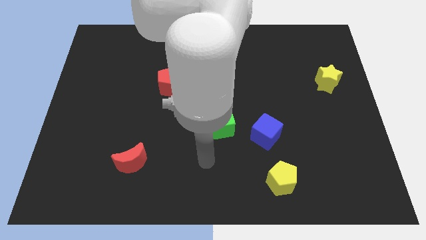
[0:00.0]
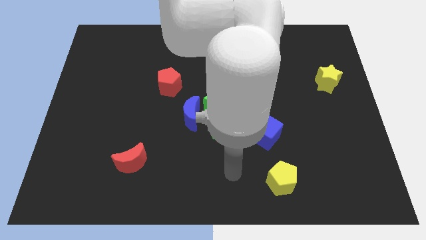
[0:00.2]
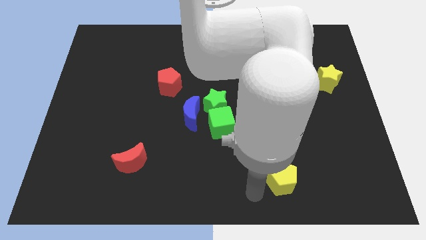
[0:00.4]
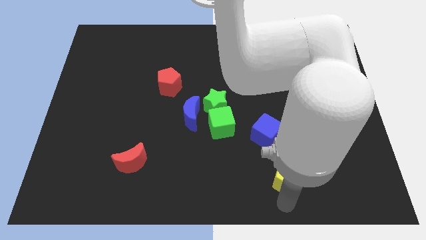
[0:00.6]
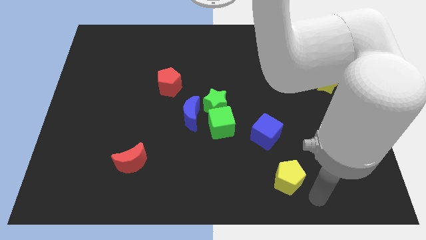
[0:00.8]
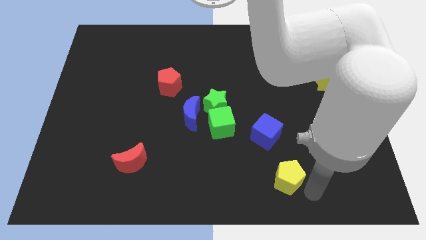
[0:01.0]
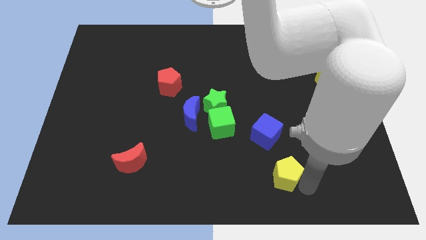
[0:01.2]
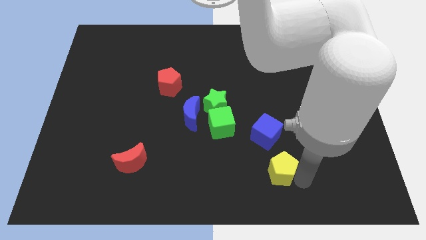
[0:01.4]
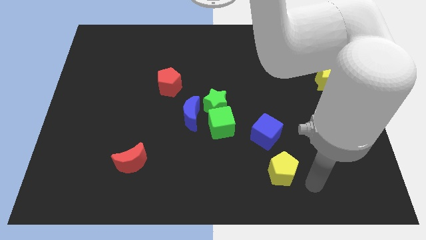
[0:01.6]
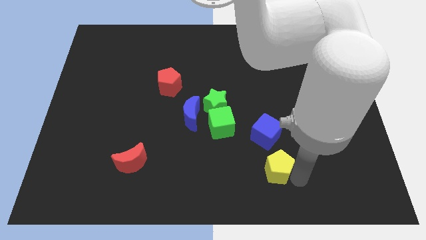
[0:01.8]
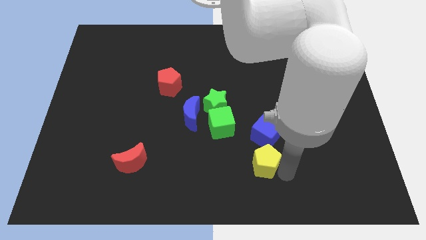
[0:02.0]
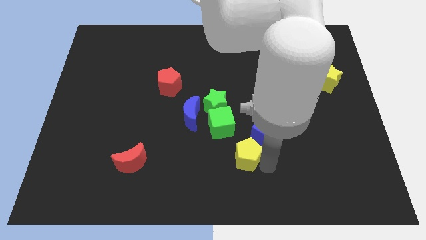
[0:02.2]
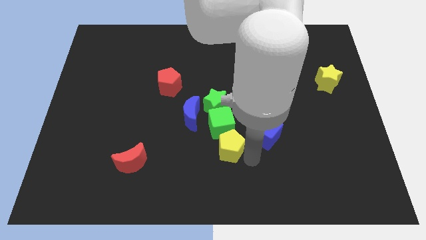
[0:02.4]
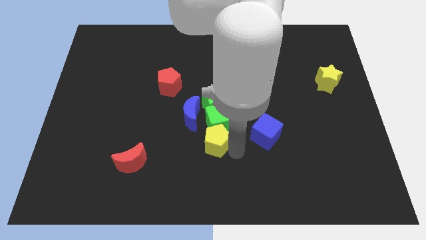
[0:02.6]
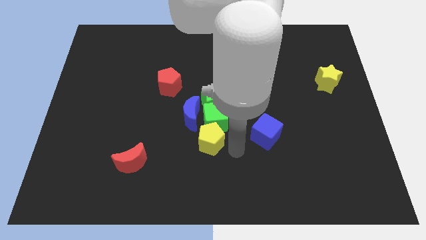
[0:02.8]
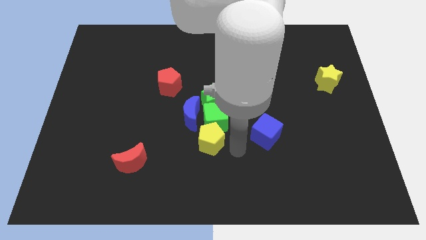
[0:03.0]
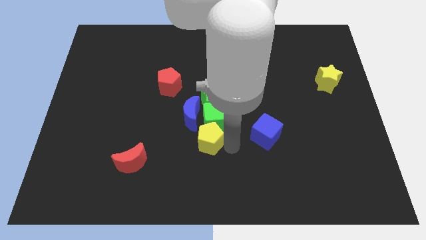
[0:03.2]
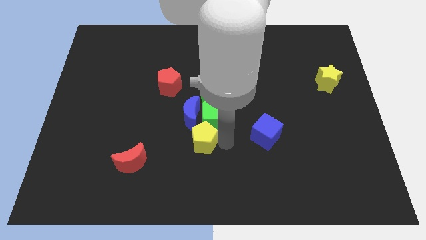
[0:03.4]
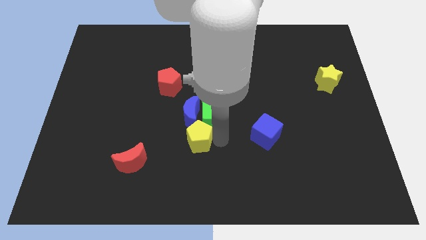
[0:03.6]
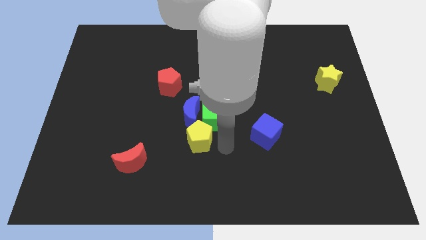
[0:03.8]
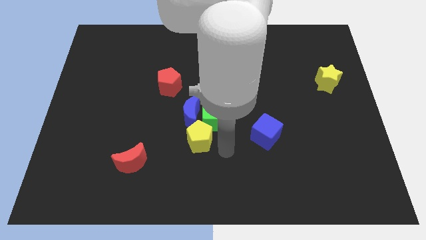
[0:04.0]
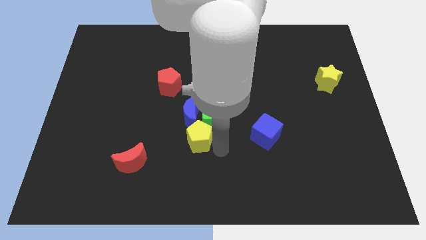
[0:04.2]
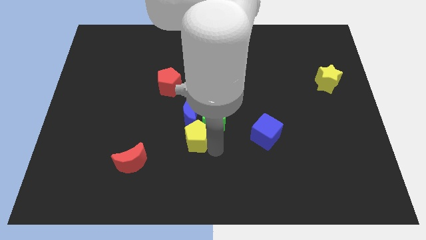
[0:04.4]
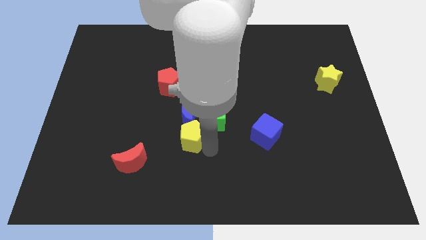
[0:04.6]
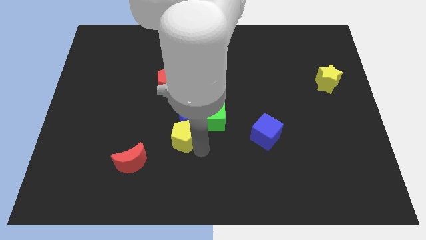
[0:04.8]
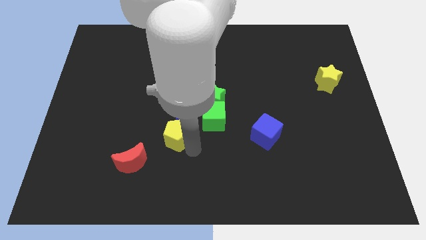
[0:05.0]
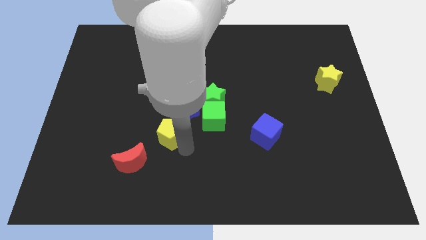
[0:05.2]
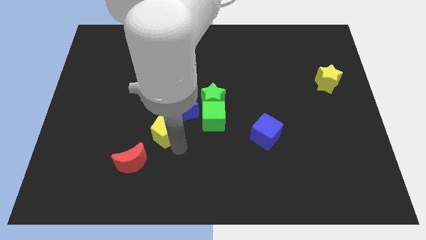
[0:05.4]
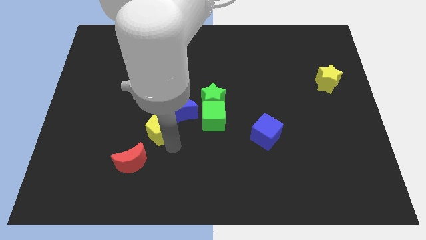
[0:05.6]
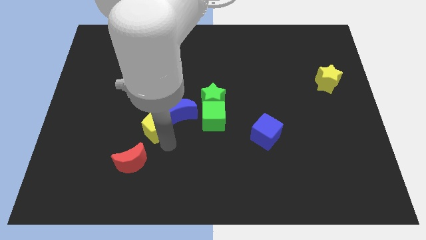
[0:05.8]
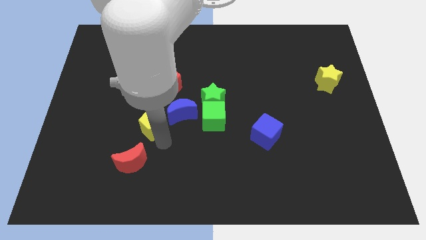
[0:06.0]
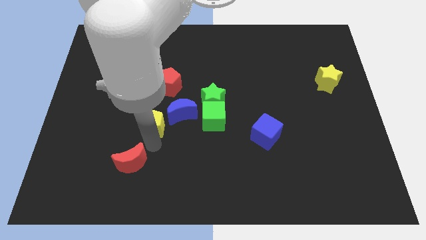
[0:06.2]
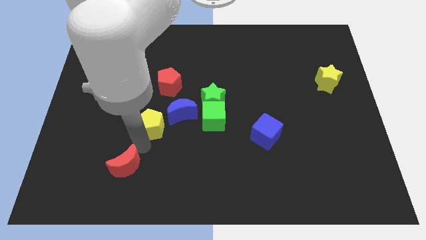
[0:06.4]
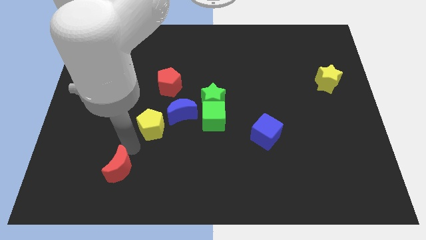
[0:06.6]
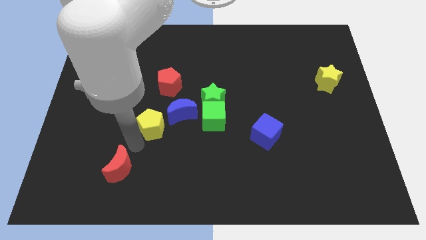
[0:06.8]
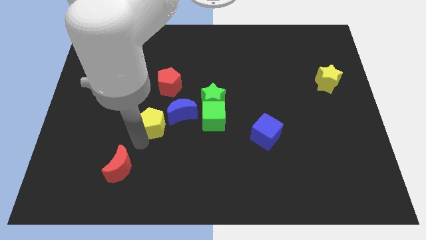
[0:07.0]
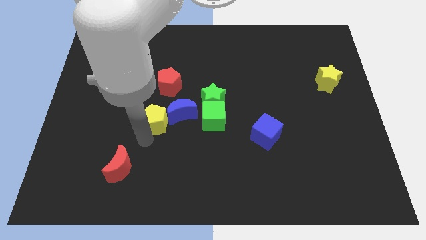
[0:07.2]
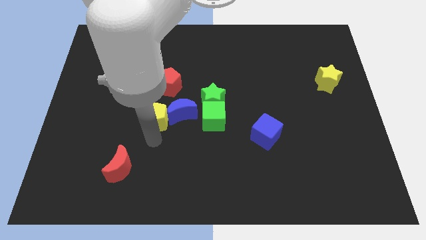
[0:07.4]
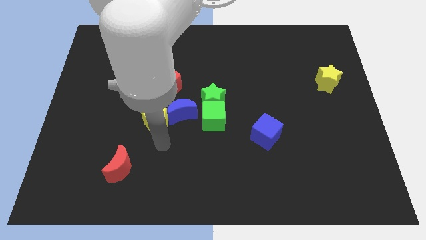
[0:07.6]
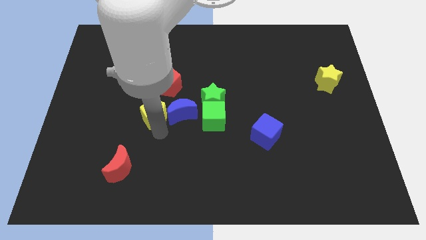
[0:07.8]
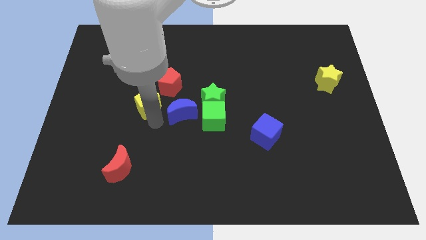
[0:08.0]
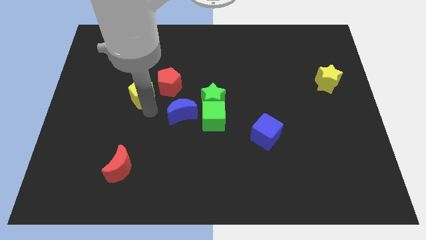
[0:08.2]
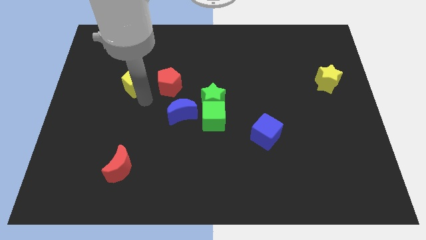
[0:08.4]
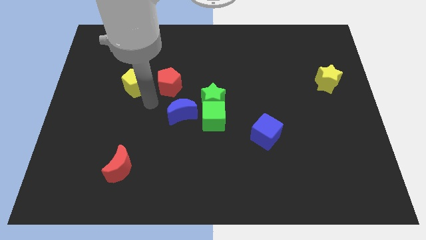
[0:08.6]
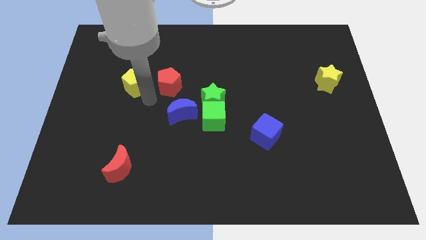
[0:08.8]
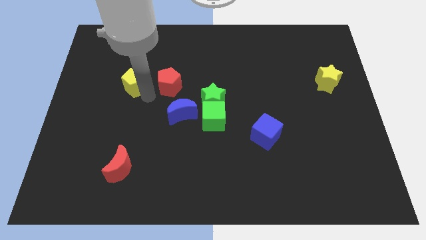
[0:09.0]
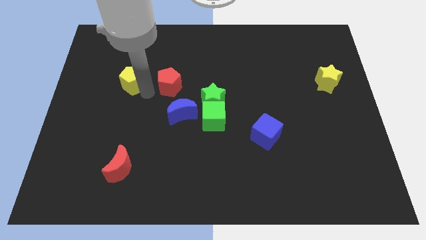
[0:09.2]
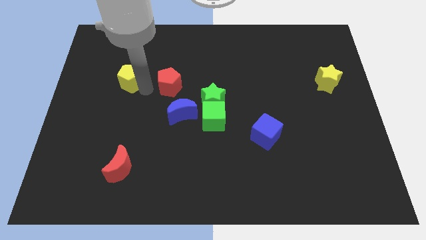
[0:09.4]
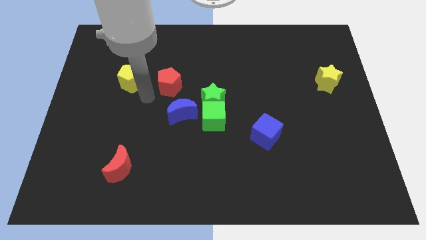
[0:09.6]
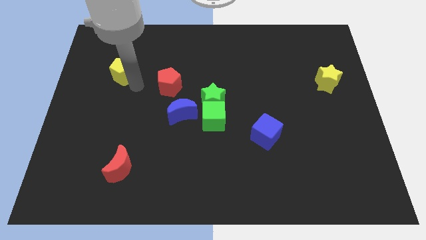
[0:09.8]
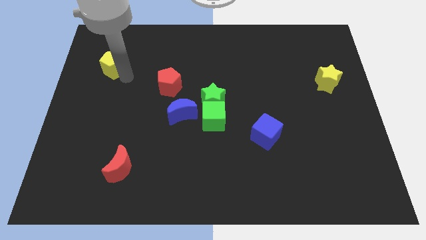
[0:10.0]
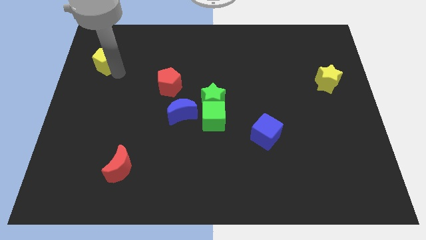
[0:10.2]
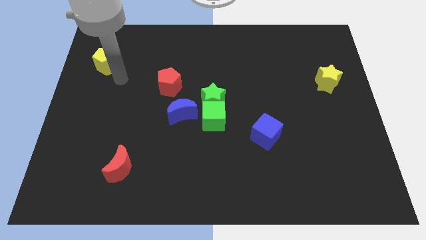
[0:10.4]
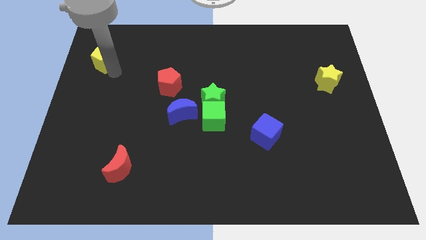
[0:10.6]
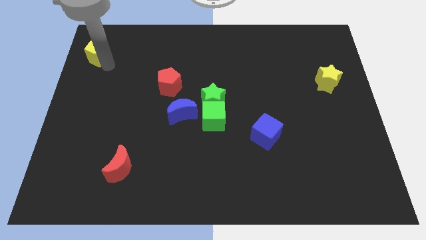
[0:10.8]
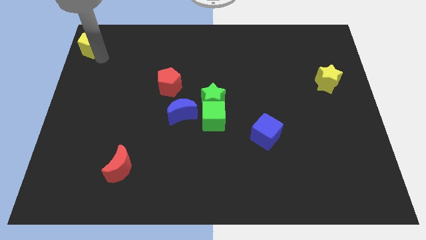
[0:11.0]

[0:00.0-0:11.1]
put the yellow pentagon to the upper left corner
